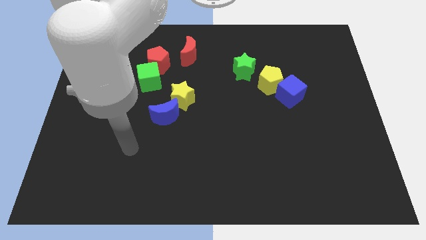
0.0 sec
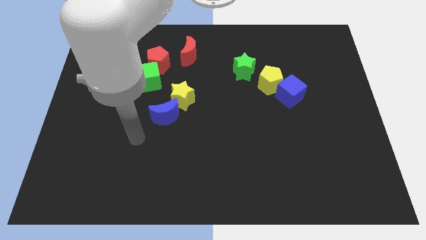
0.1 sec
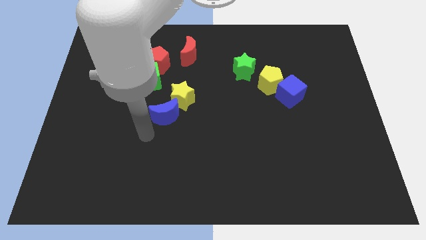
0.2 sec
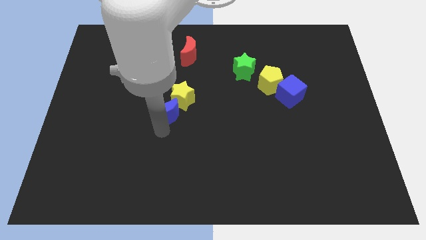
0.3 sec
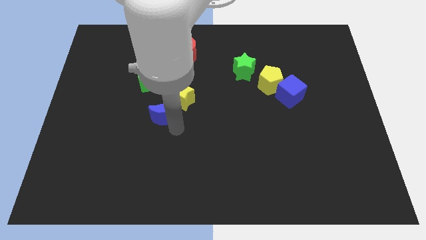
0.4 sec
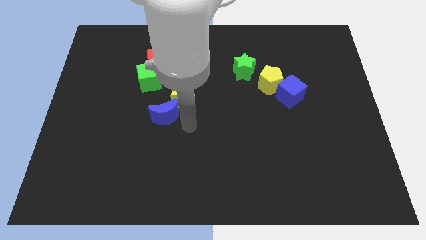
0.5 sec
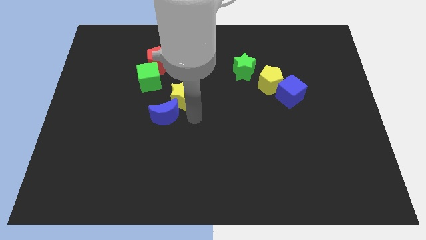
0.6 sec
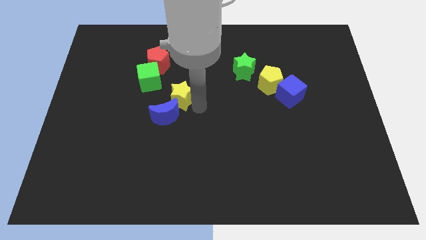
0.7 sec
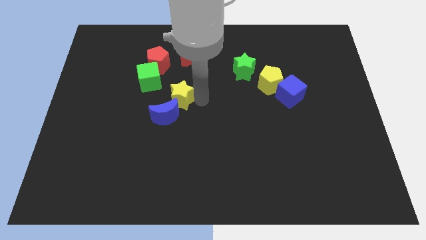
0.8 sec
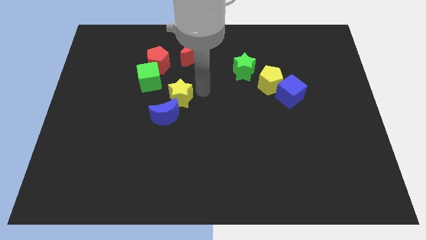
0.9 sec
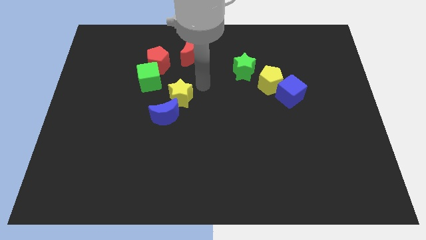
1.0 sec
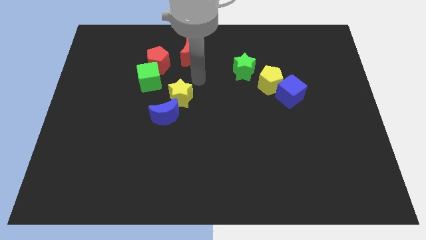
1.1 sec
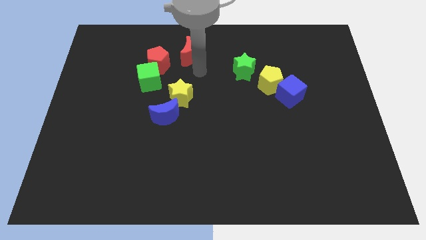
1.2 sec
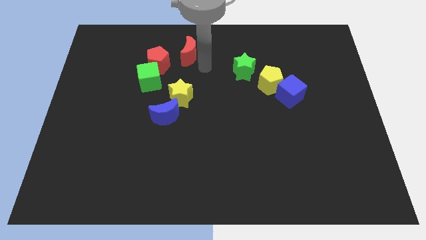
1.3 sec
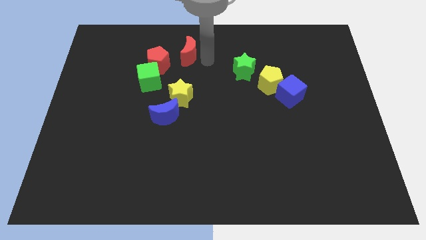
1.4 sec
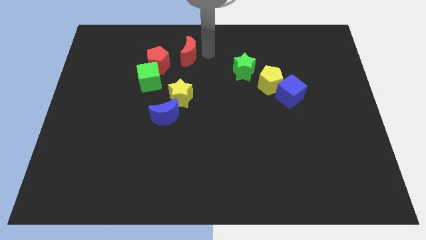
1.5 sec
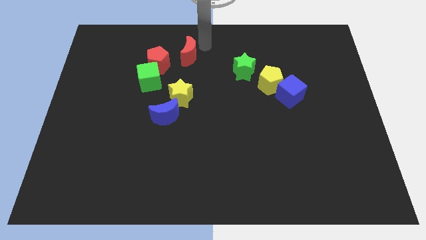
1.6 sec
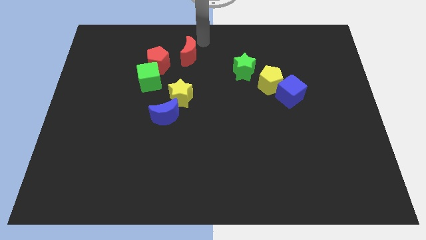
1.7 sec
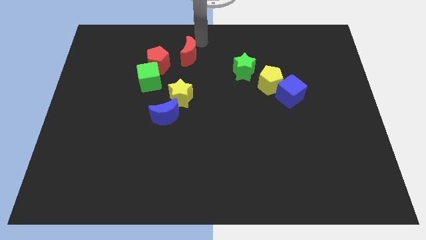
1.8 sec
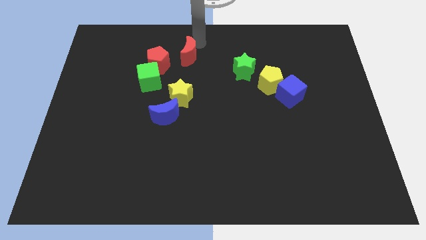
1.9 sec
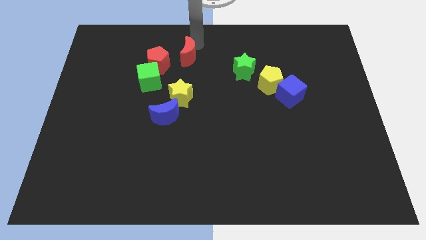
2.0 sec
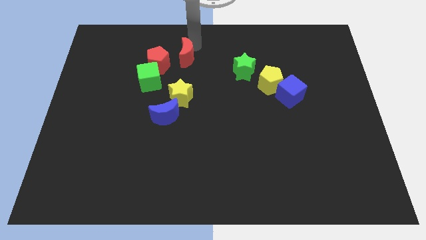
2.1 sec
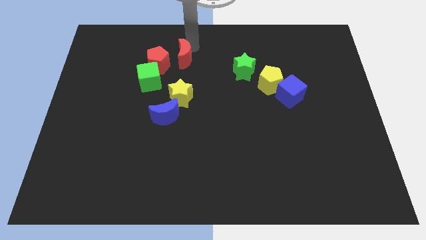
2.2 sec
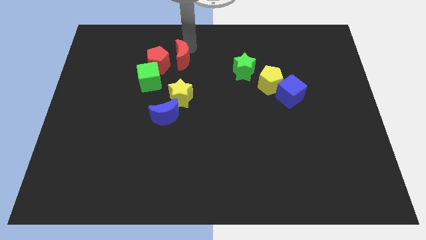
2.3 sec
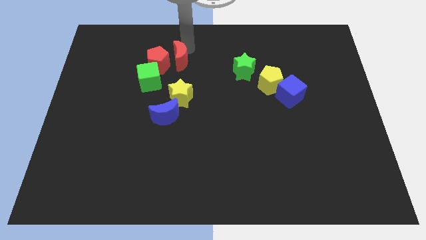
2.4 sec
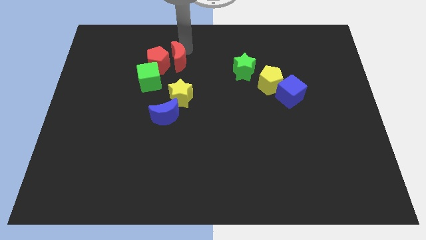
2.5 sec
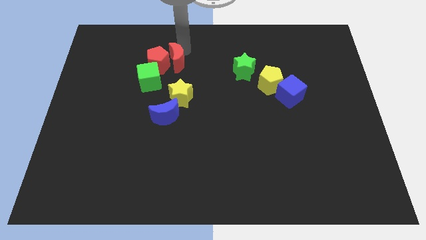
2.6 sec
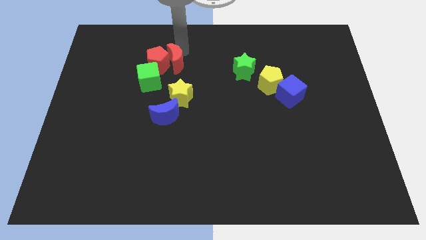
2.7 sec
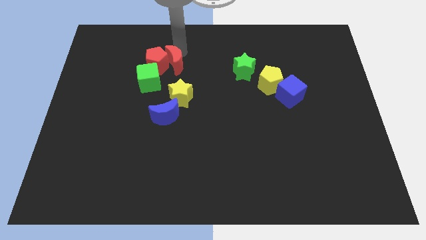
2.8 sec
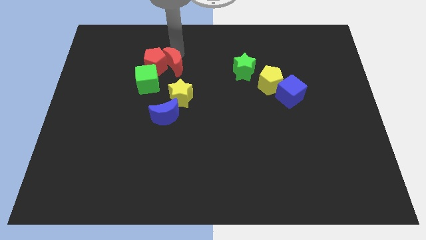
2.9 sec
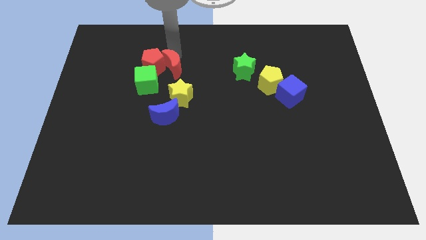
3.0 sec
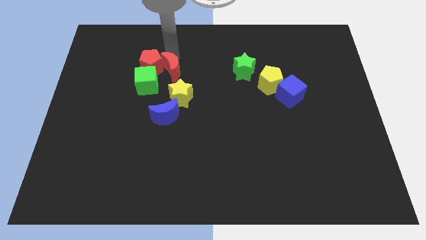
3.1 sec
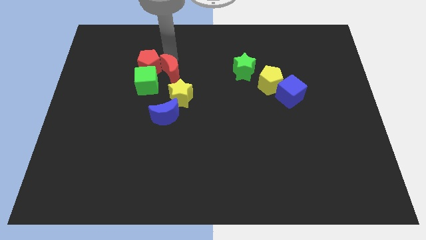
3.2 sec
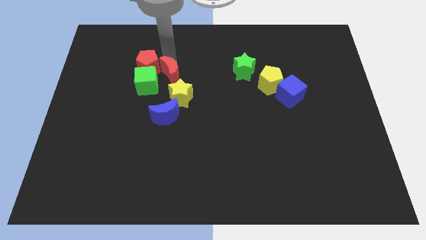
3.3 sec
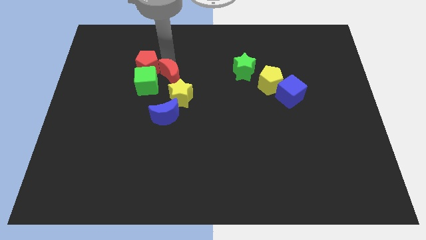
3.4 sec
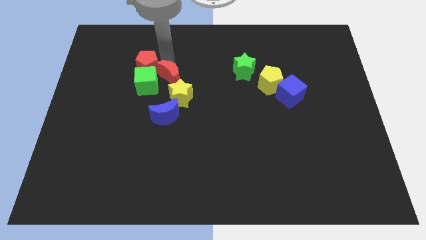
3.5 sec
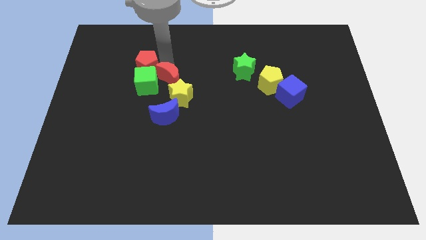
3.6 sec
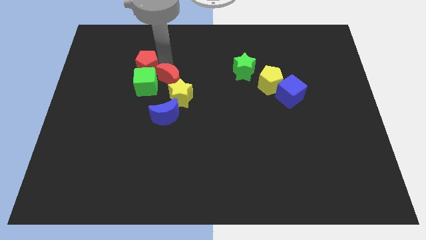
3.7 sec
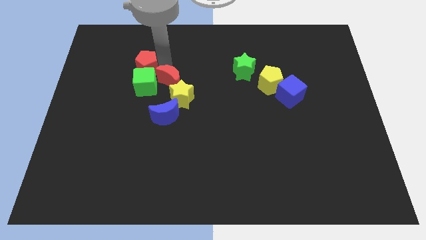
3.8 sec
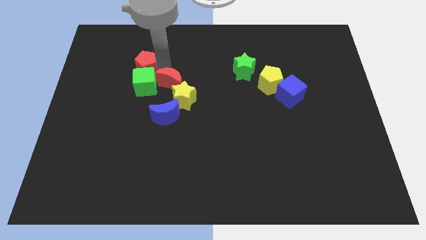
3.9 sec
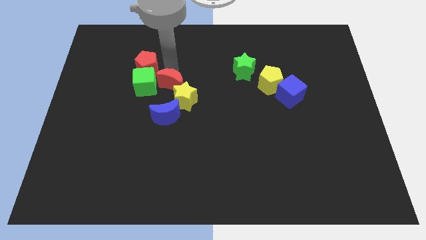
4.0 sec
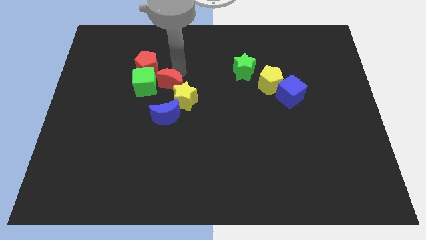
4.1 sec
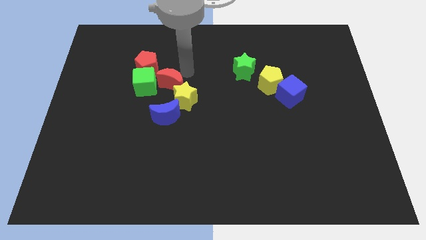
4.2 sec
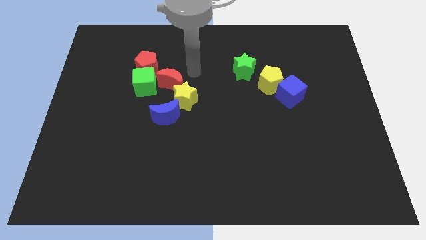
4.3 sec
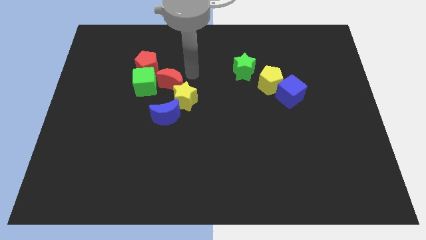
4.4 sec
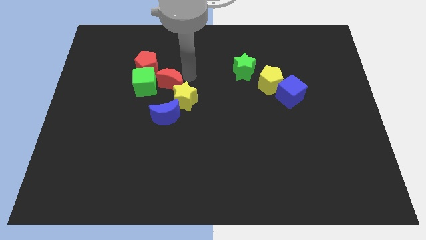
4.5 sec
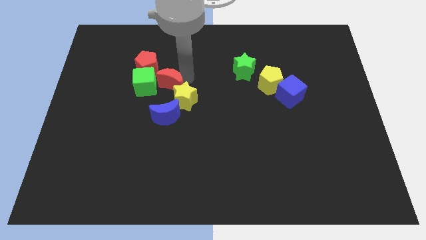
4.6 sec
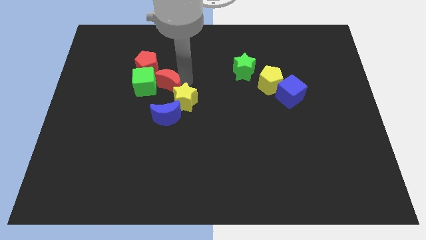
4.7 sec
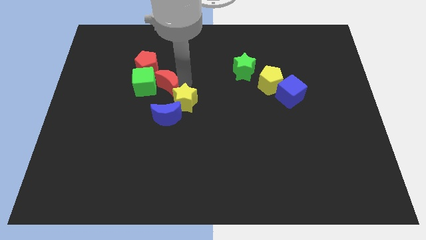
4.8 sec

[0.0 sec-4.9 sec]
move the red moon to the left side of the yellow star

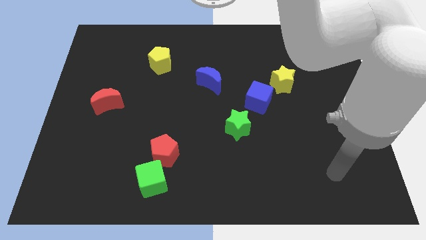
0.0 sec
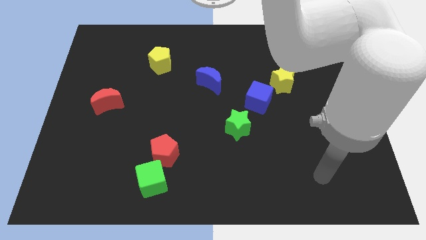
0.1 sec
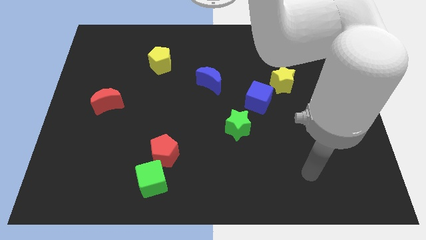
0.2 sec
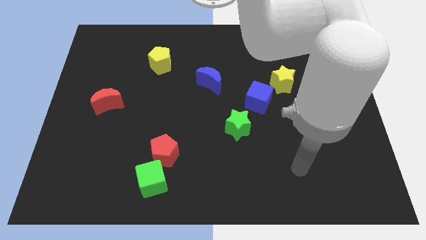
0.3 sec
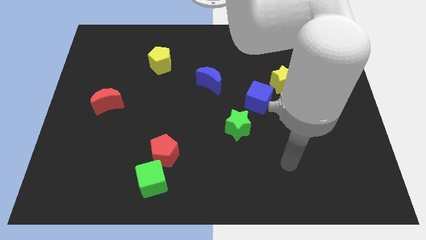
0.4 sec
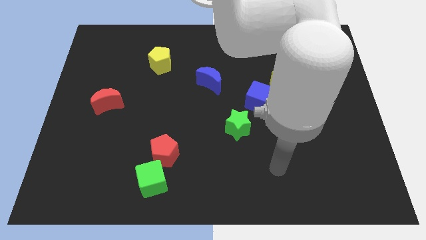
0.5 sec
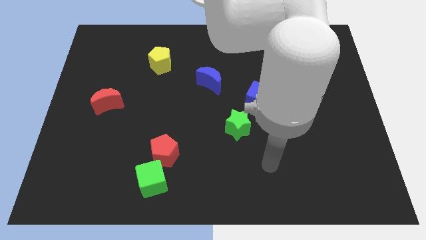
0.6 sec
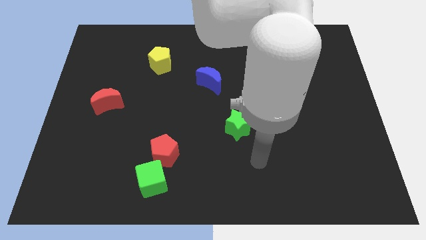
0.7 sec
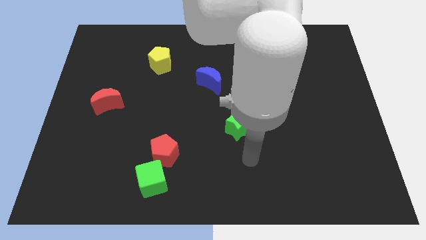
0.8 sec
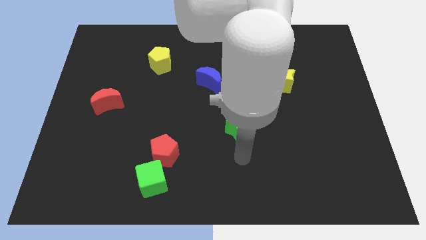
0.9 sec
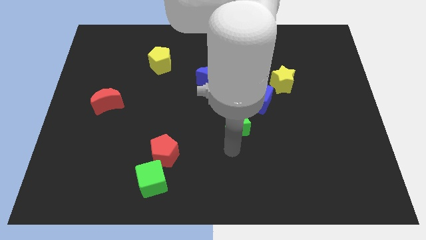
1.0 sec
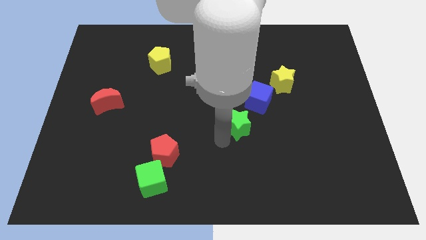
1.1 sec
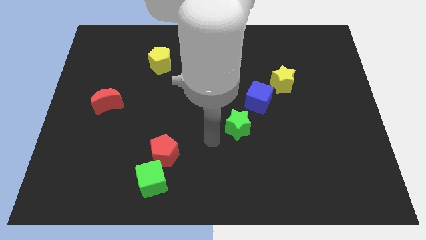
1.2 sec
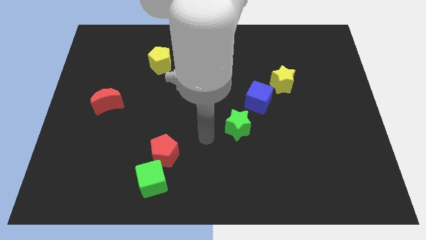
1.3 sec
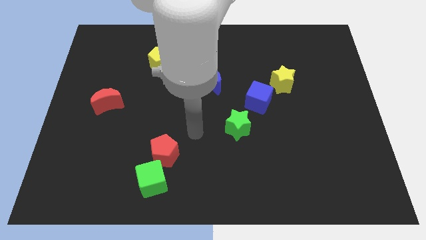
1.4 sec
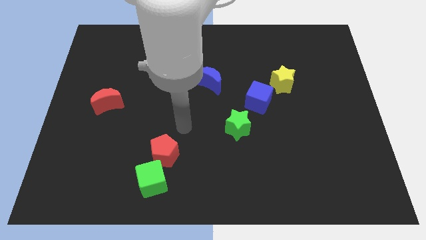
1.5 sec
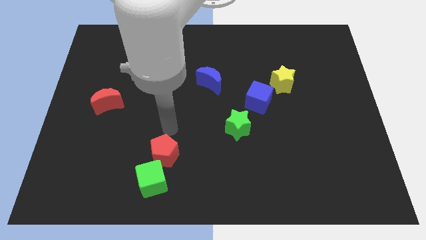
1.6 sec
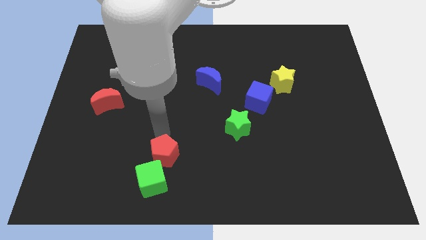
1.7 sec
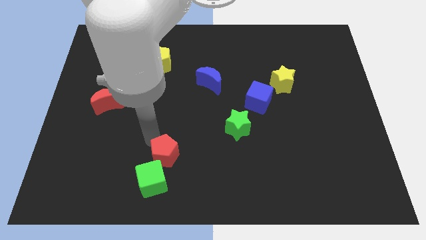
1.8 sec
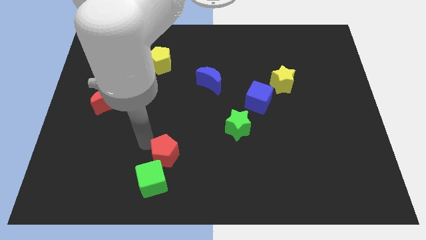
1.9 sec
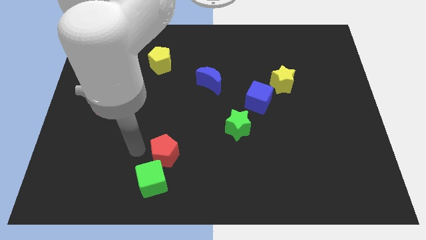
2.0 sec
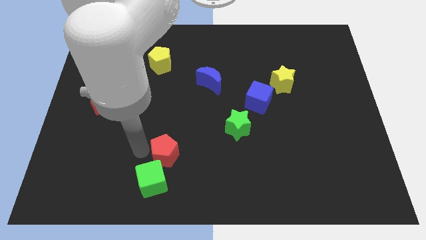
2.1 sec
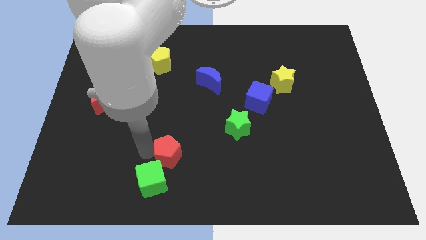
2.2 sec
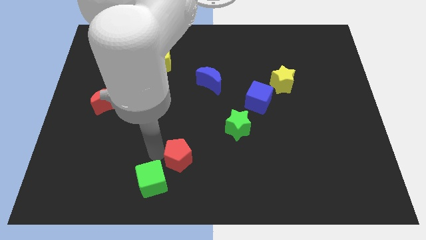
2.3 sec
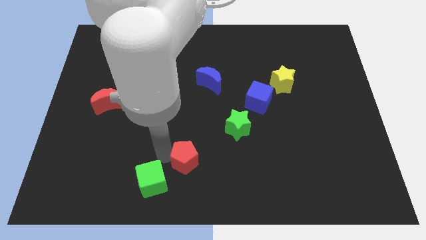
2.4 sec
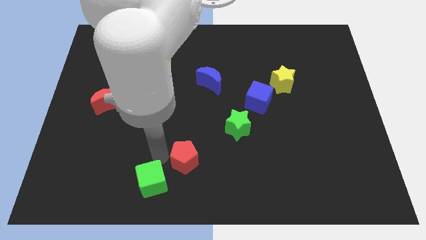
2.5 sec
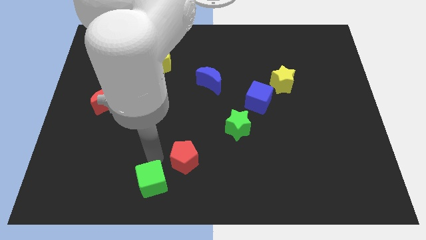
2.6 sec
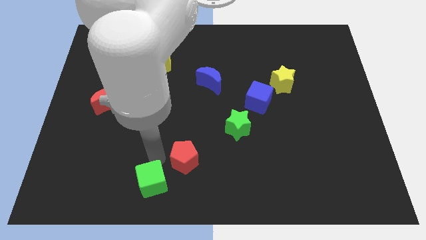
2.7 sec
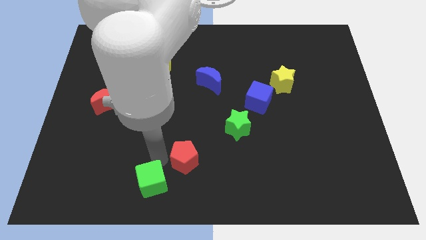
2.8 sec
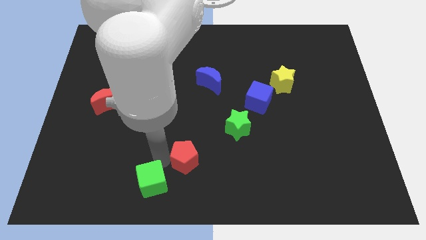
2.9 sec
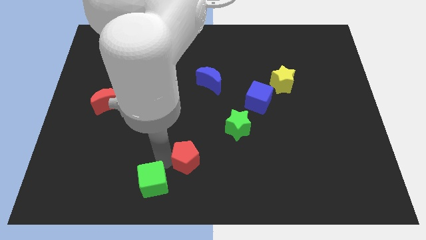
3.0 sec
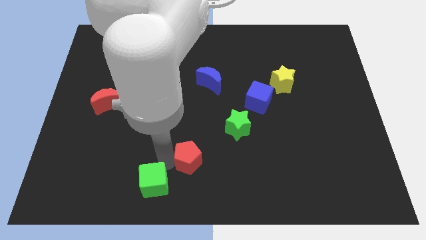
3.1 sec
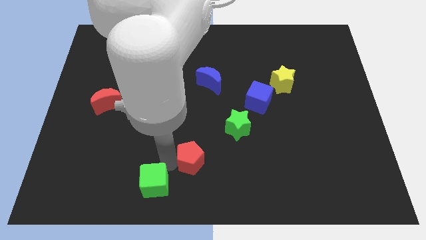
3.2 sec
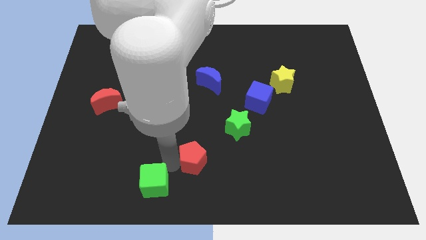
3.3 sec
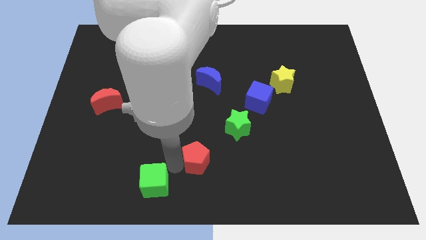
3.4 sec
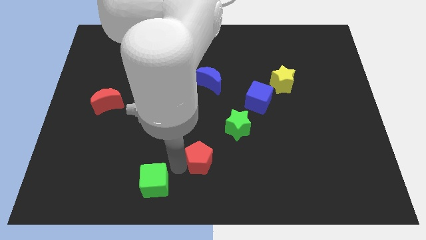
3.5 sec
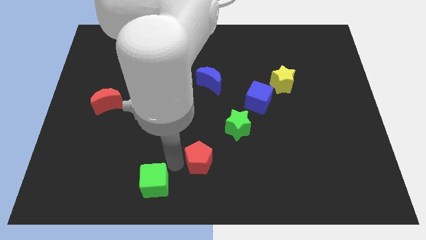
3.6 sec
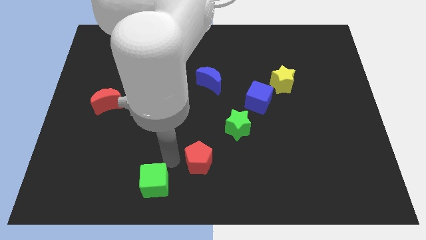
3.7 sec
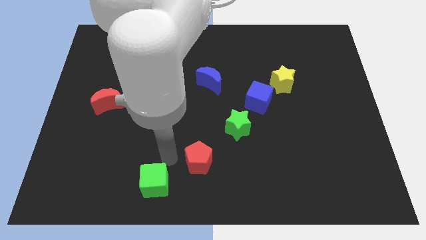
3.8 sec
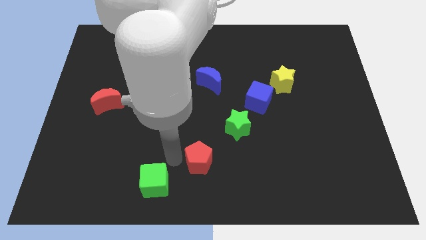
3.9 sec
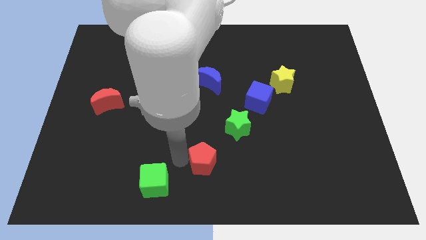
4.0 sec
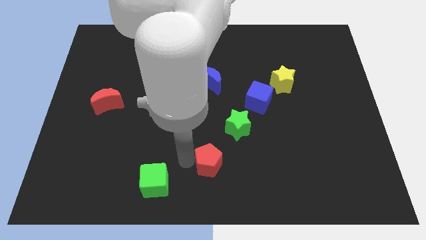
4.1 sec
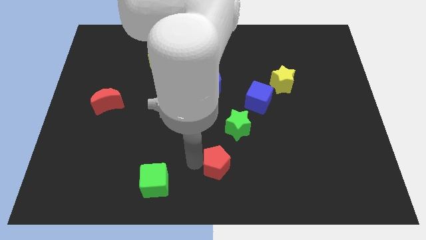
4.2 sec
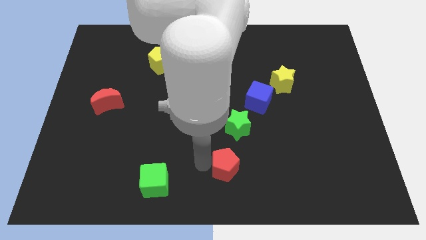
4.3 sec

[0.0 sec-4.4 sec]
push the red pentagon below the green star
